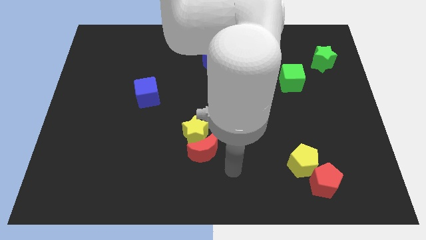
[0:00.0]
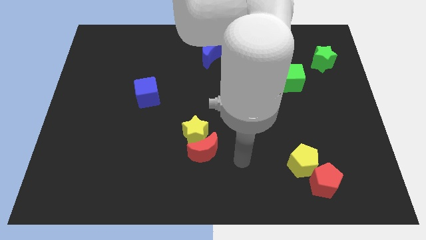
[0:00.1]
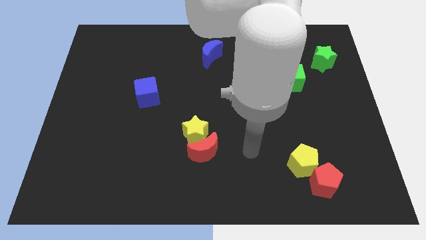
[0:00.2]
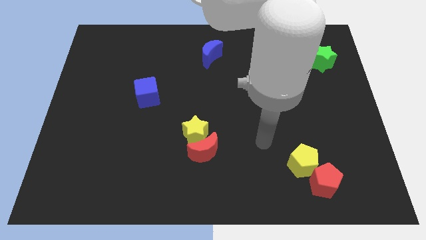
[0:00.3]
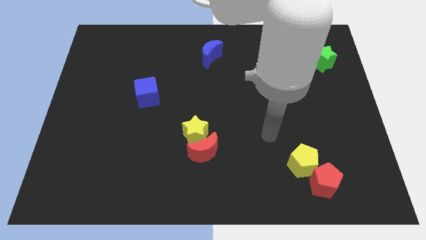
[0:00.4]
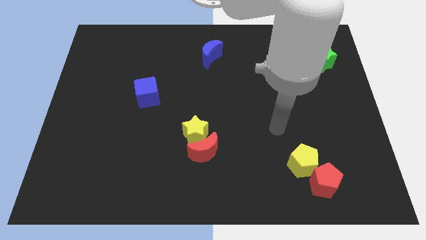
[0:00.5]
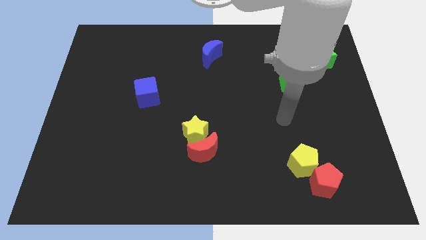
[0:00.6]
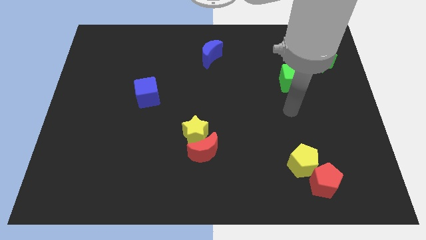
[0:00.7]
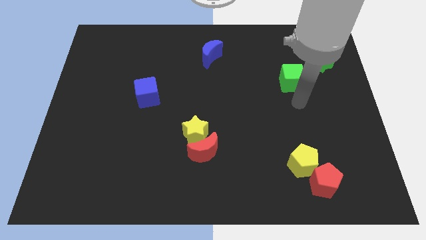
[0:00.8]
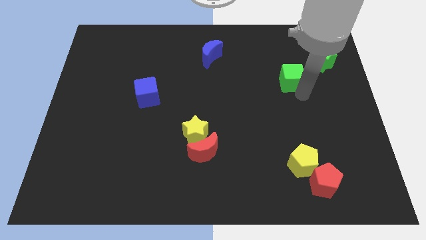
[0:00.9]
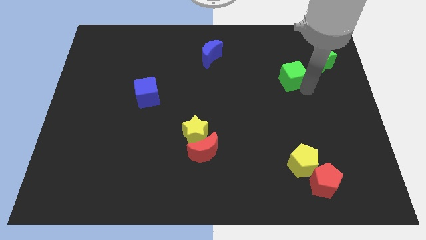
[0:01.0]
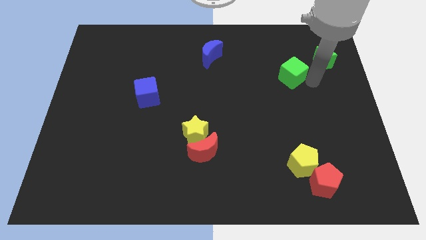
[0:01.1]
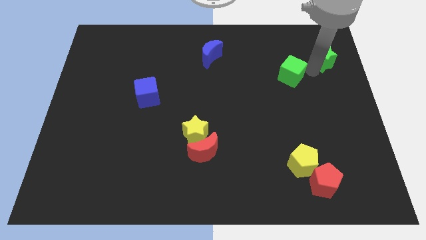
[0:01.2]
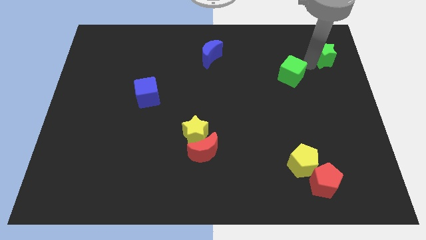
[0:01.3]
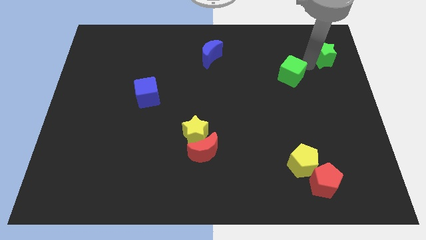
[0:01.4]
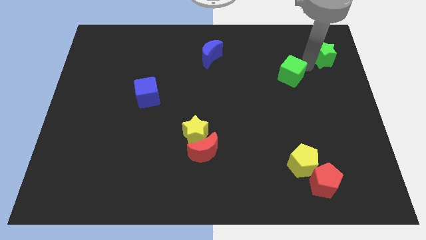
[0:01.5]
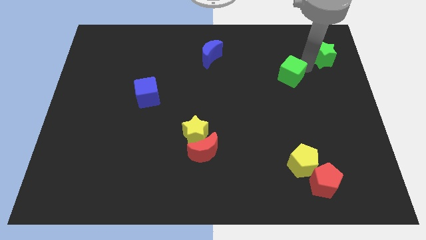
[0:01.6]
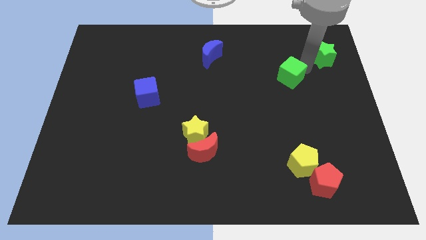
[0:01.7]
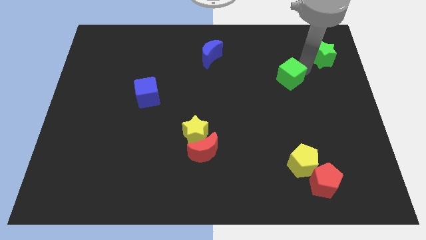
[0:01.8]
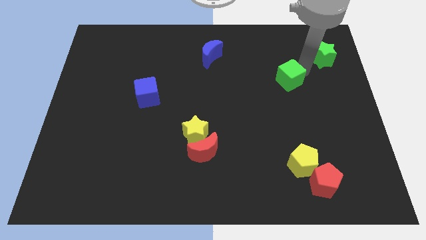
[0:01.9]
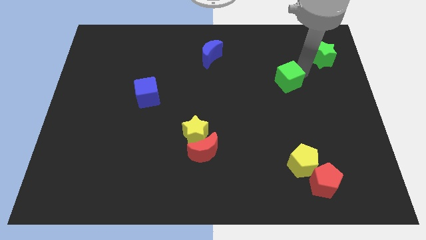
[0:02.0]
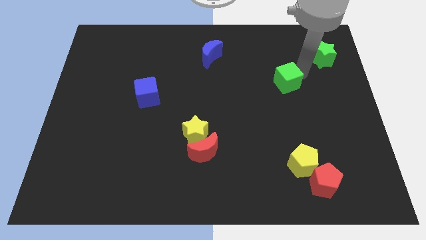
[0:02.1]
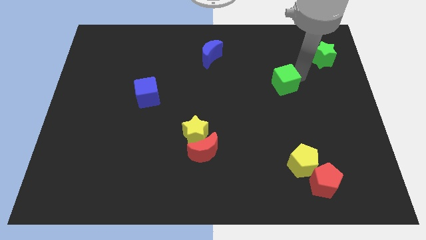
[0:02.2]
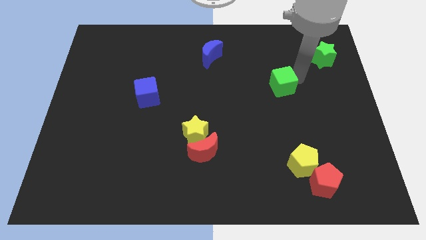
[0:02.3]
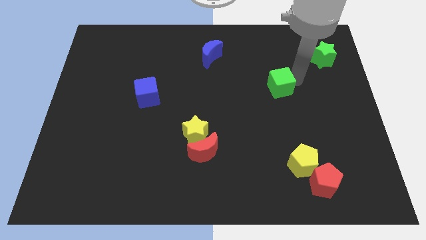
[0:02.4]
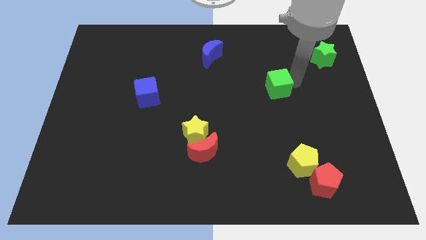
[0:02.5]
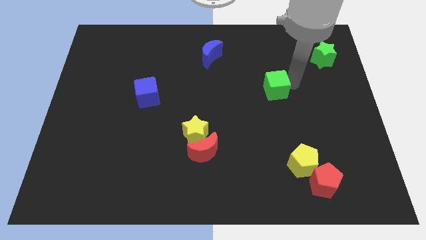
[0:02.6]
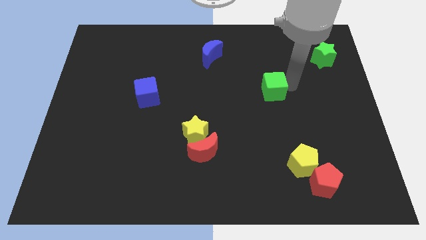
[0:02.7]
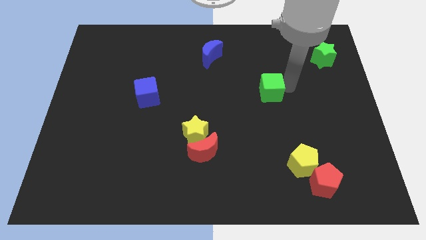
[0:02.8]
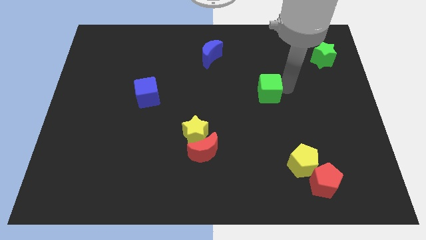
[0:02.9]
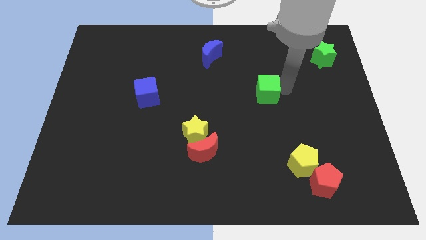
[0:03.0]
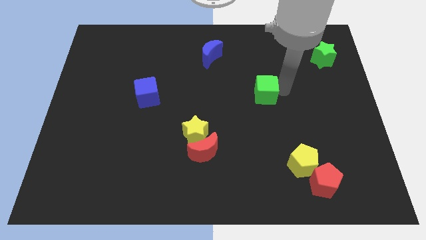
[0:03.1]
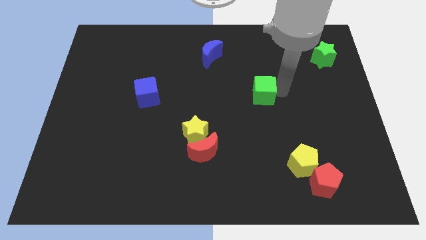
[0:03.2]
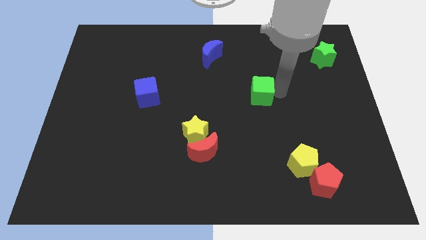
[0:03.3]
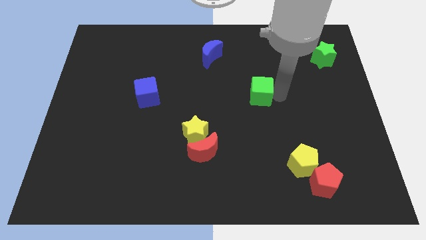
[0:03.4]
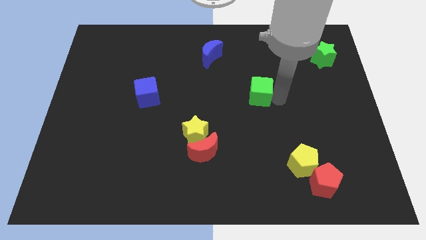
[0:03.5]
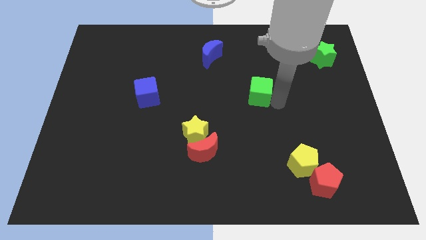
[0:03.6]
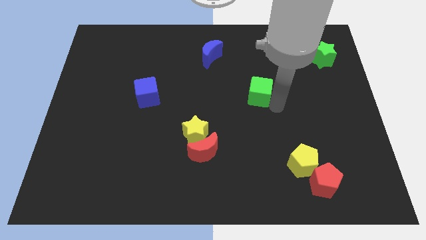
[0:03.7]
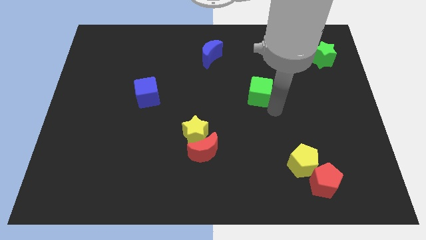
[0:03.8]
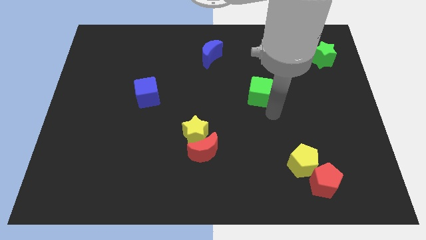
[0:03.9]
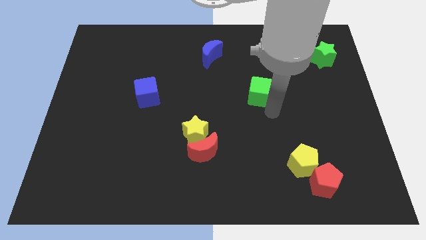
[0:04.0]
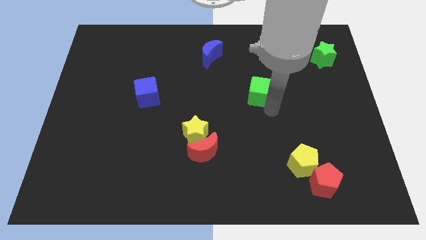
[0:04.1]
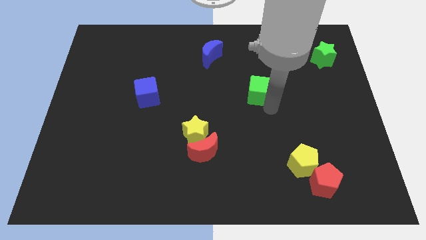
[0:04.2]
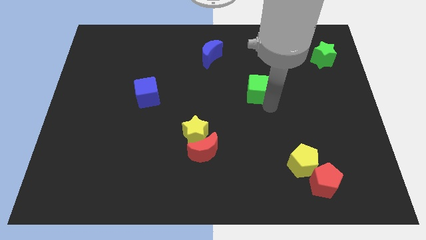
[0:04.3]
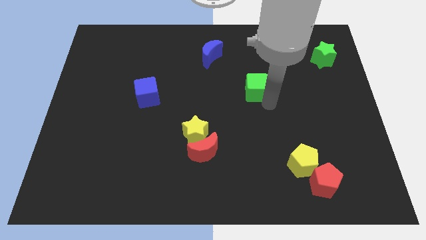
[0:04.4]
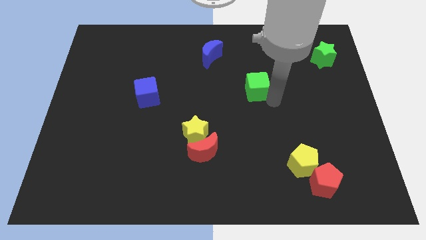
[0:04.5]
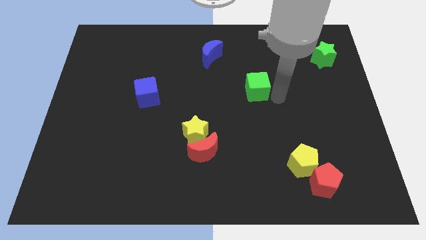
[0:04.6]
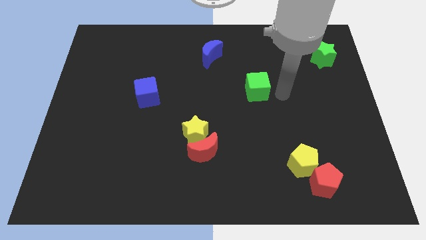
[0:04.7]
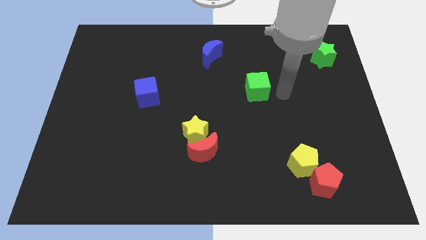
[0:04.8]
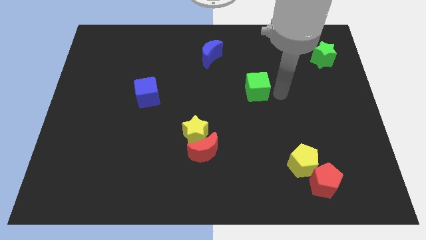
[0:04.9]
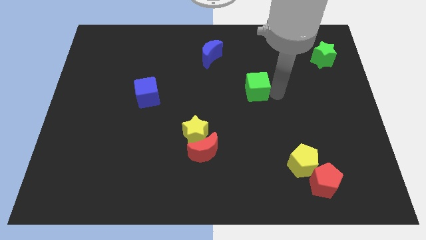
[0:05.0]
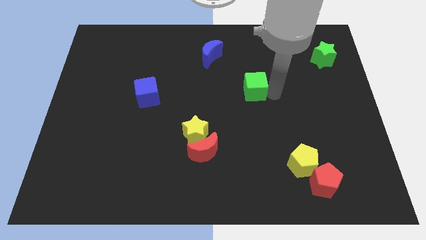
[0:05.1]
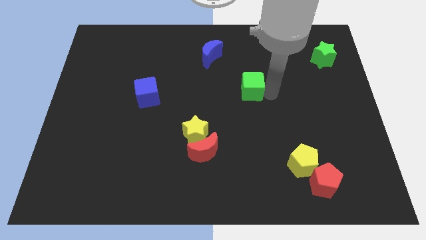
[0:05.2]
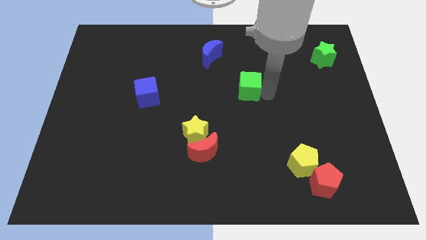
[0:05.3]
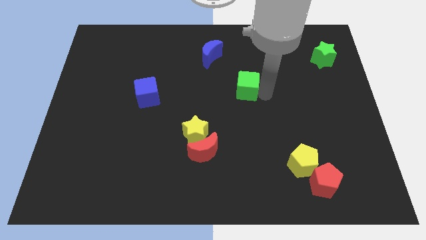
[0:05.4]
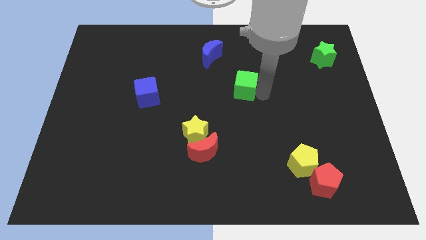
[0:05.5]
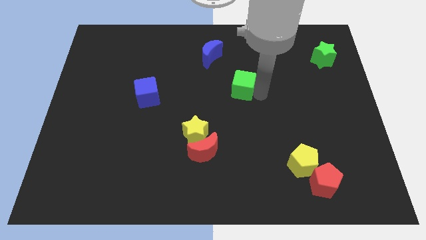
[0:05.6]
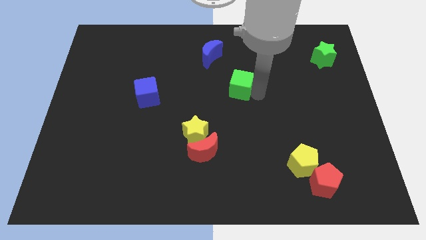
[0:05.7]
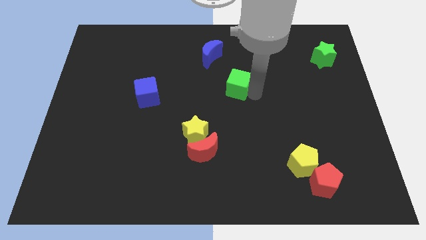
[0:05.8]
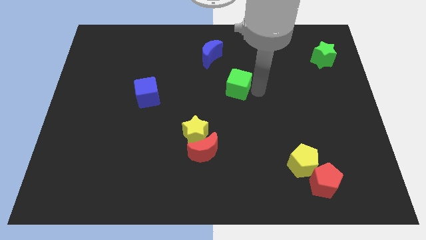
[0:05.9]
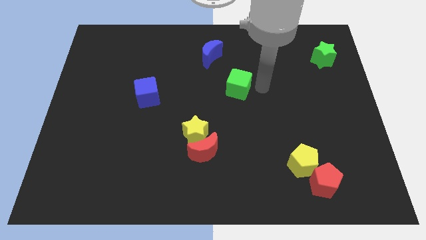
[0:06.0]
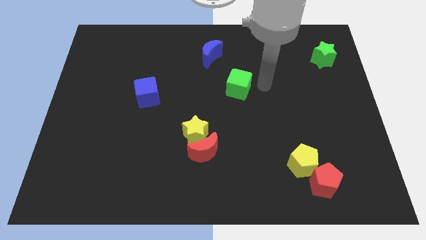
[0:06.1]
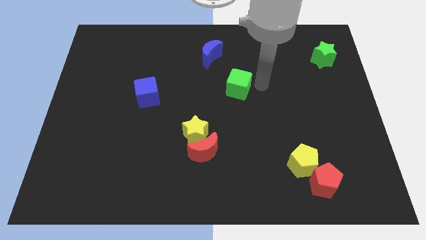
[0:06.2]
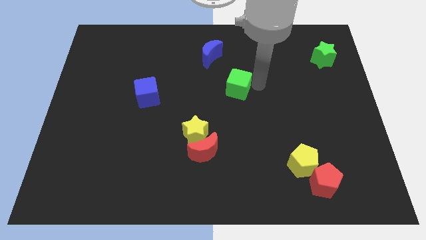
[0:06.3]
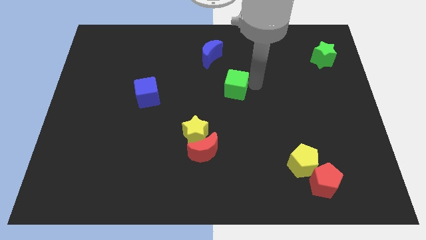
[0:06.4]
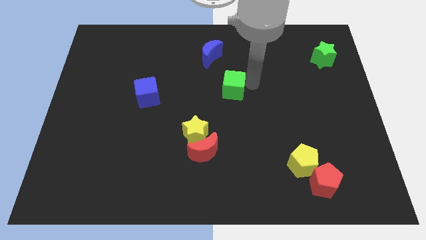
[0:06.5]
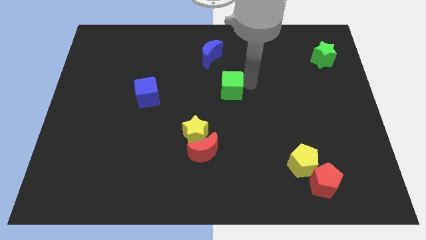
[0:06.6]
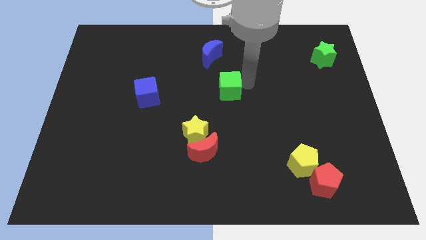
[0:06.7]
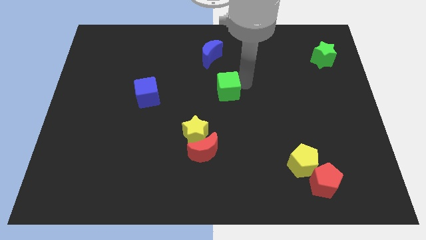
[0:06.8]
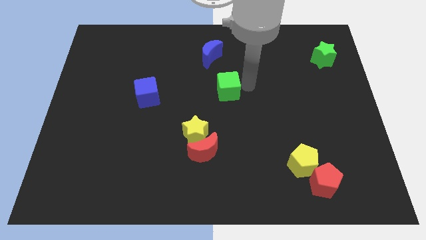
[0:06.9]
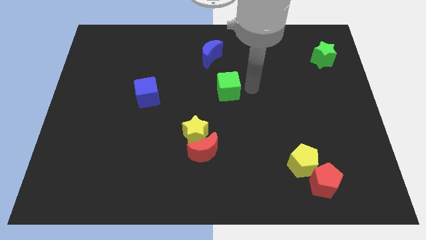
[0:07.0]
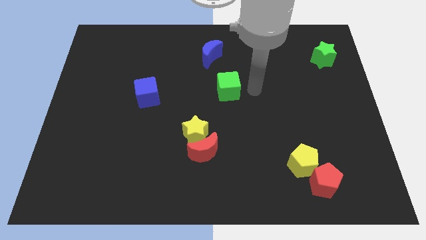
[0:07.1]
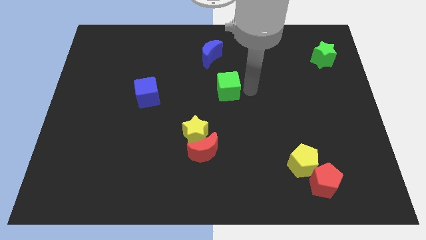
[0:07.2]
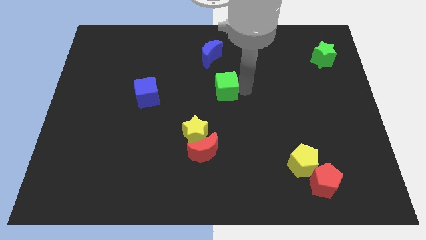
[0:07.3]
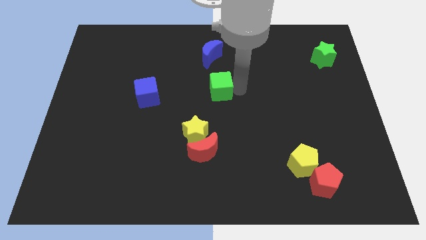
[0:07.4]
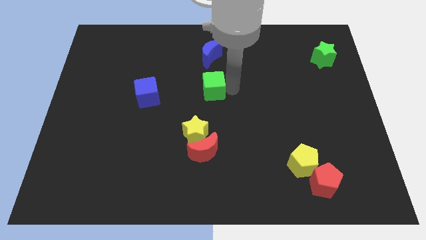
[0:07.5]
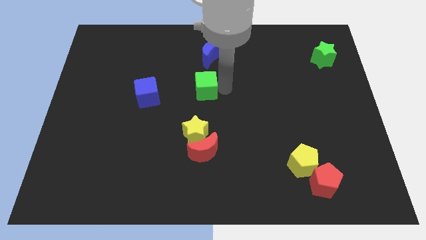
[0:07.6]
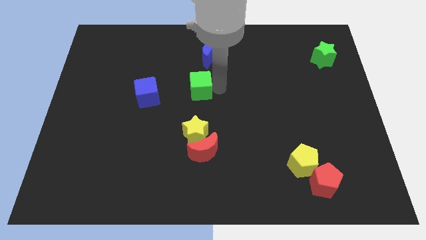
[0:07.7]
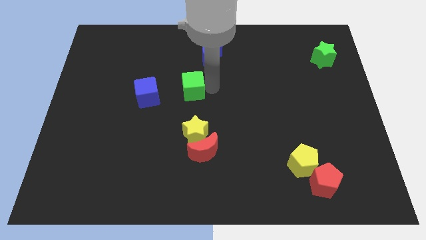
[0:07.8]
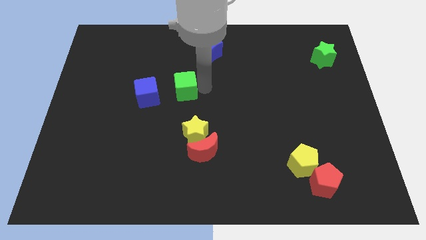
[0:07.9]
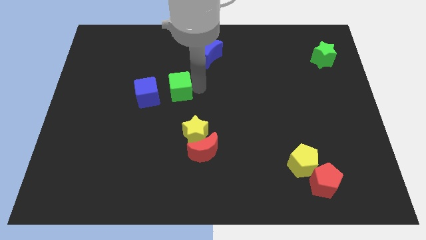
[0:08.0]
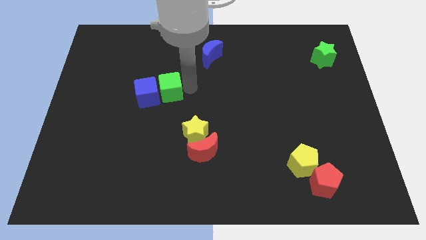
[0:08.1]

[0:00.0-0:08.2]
move the green cube towards the blue cube

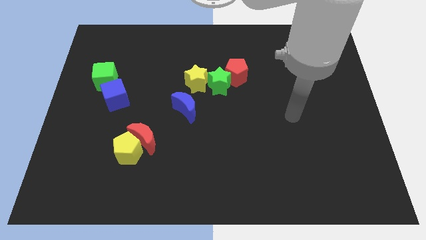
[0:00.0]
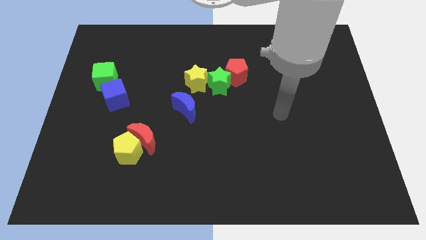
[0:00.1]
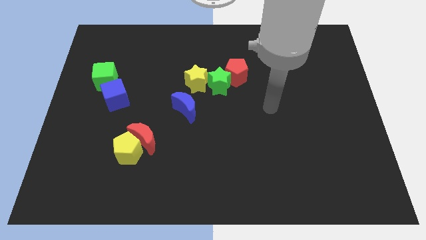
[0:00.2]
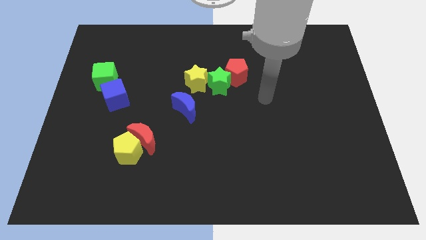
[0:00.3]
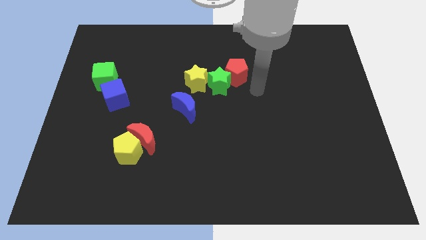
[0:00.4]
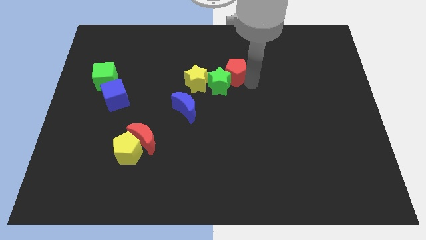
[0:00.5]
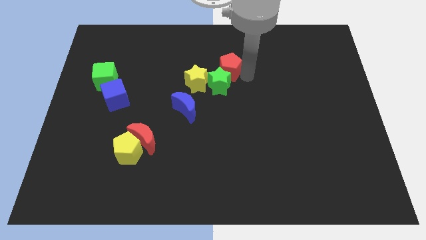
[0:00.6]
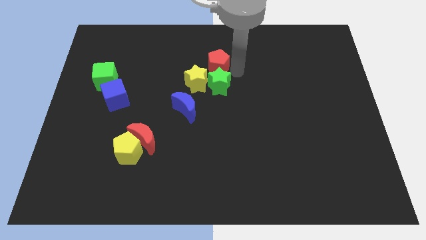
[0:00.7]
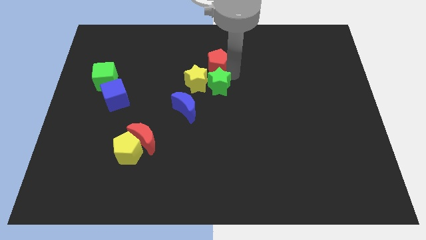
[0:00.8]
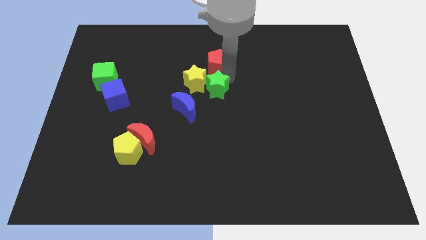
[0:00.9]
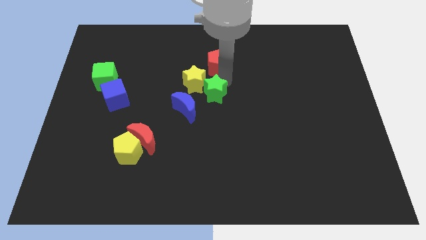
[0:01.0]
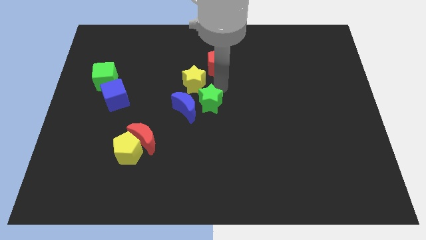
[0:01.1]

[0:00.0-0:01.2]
push the green star towards the blue moon
